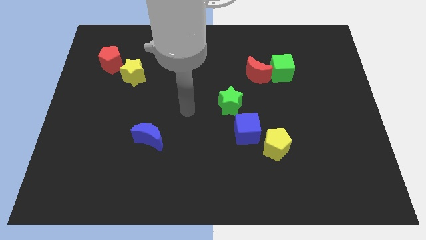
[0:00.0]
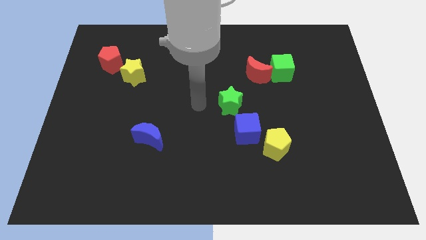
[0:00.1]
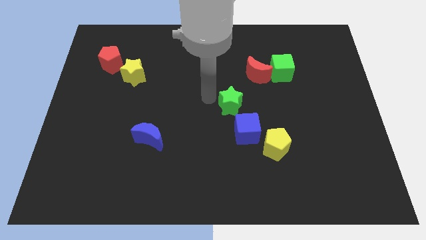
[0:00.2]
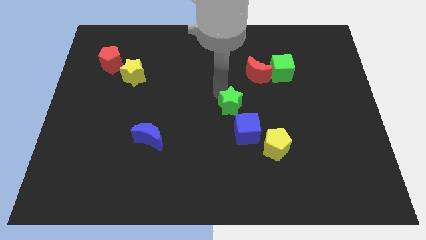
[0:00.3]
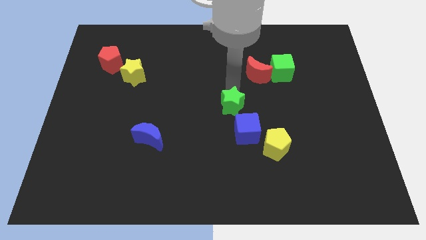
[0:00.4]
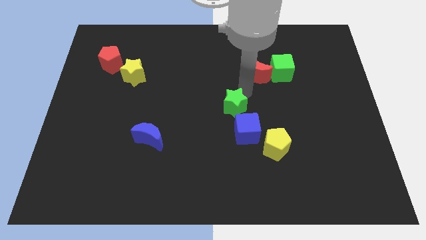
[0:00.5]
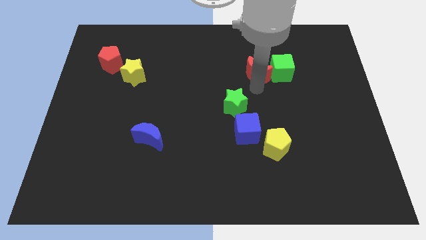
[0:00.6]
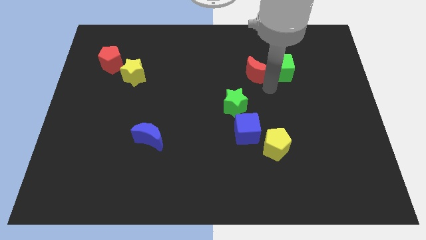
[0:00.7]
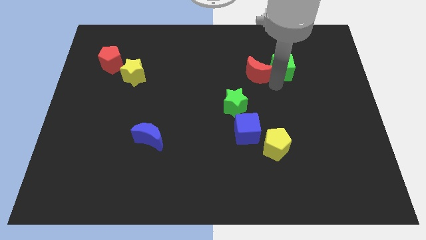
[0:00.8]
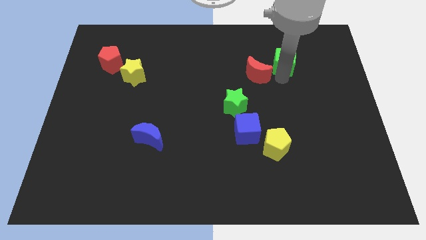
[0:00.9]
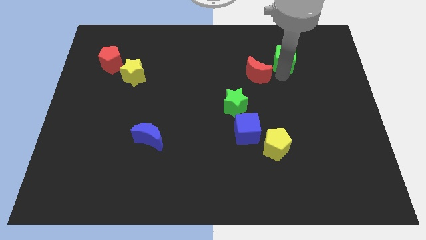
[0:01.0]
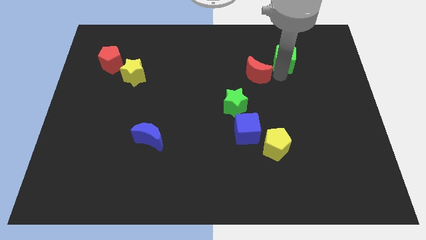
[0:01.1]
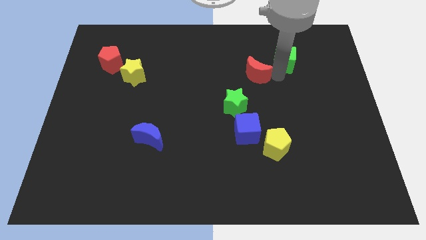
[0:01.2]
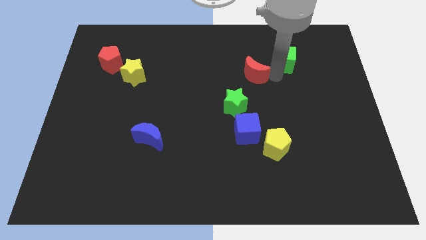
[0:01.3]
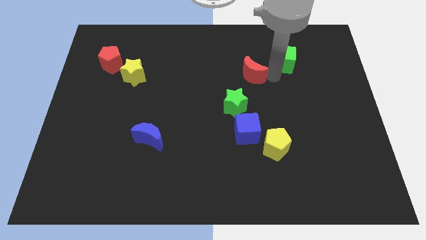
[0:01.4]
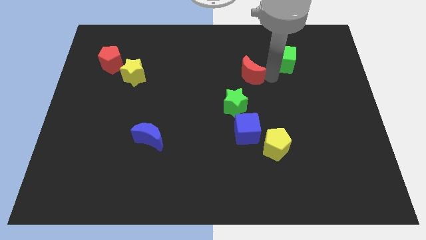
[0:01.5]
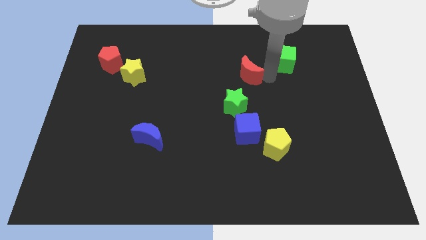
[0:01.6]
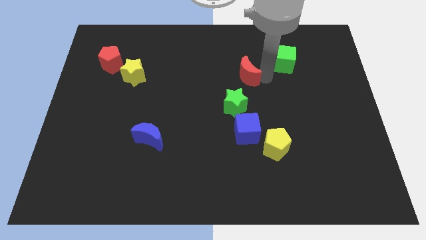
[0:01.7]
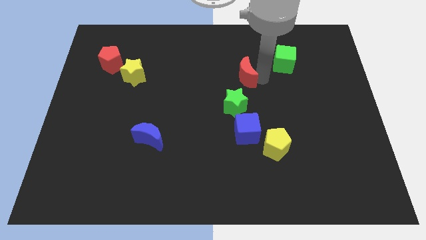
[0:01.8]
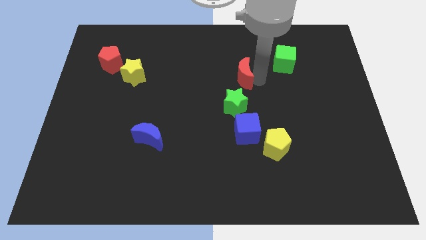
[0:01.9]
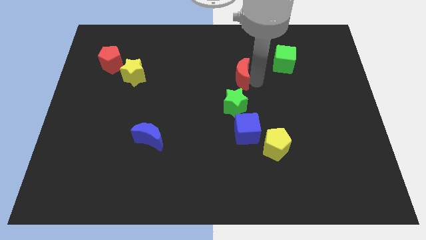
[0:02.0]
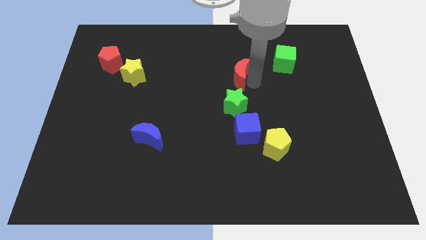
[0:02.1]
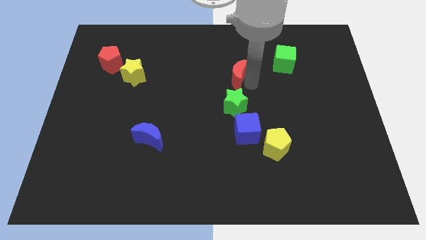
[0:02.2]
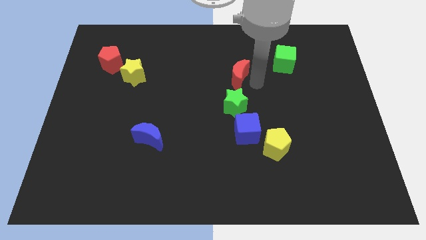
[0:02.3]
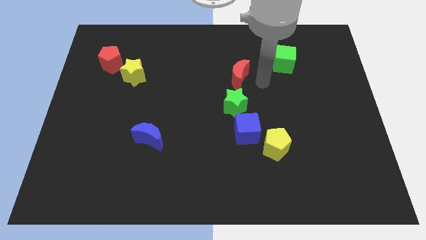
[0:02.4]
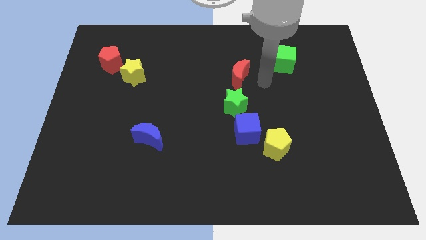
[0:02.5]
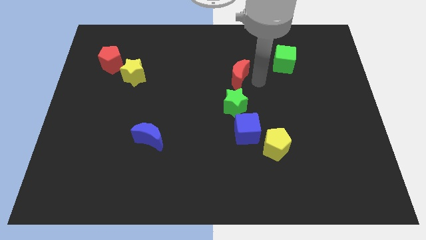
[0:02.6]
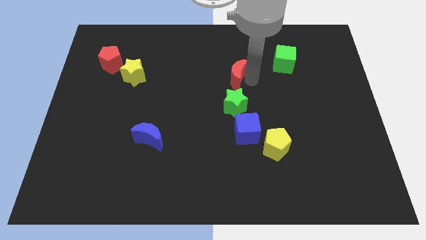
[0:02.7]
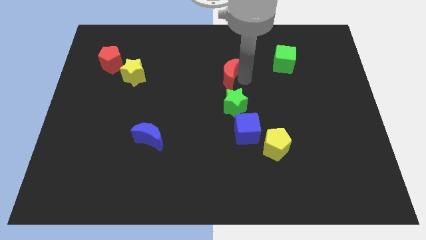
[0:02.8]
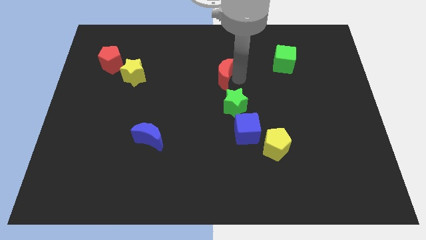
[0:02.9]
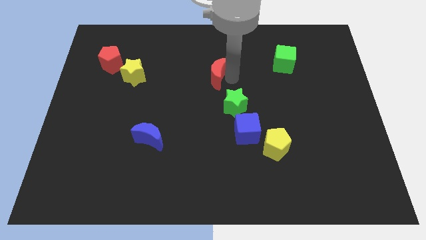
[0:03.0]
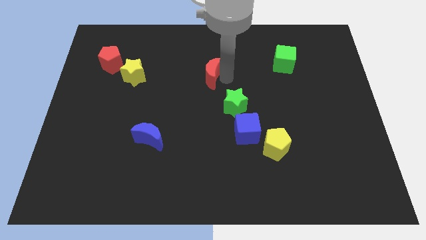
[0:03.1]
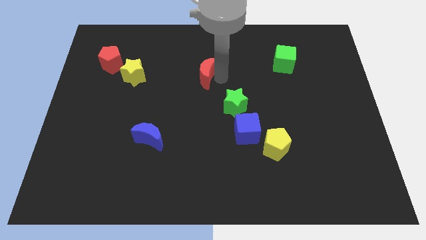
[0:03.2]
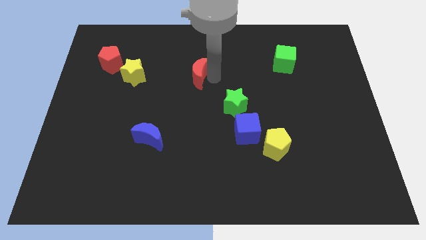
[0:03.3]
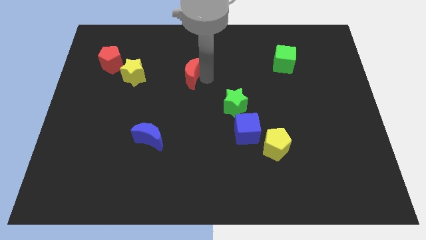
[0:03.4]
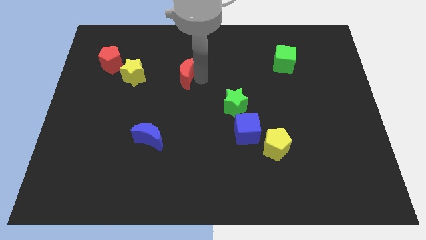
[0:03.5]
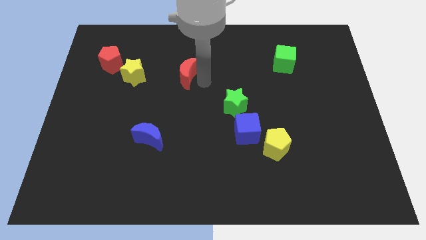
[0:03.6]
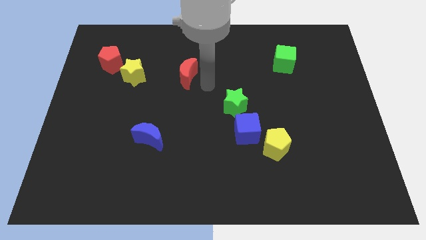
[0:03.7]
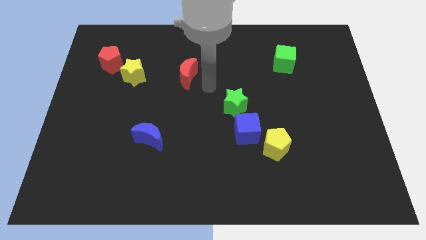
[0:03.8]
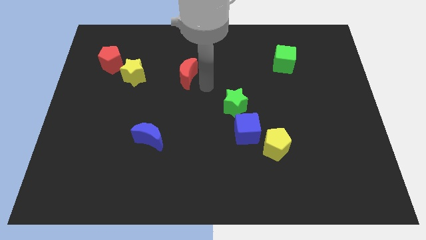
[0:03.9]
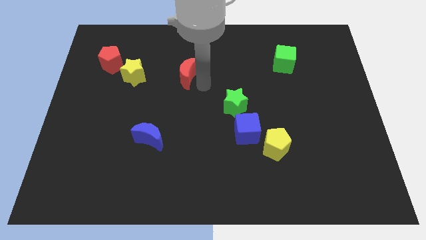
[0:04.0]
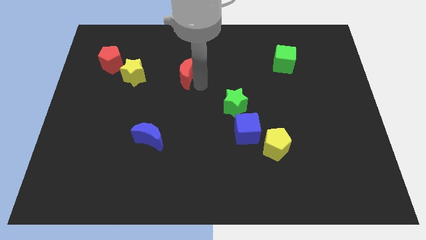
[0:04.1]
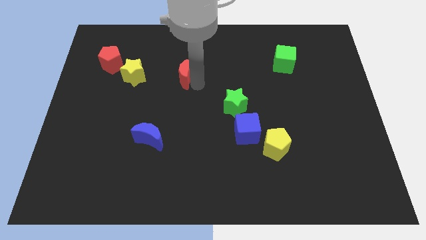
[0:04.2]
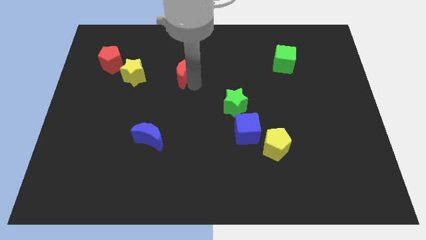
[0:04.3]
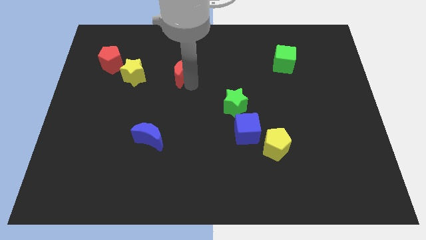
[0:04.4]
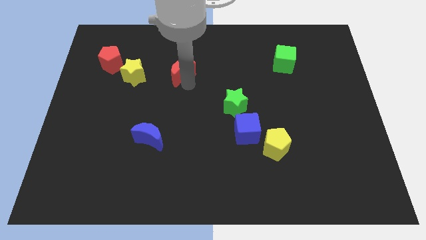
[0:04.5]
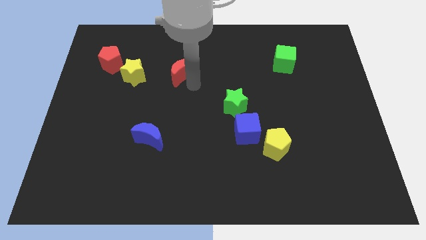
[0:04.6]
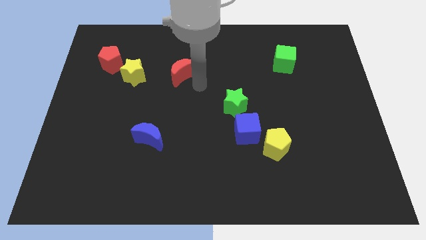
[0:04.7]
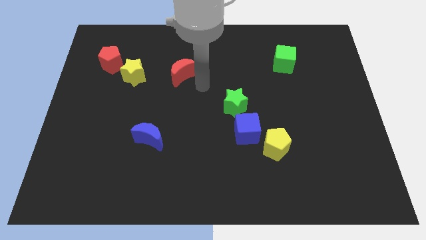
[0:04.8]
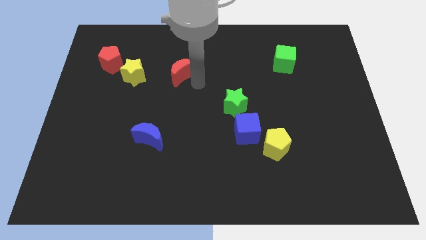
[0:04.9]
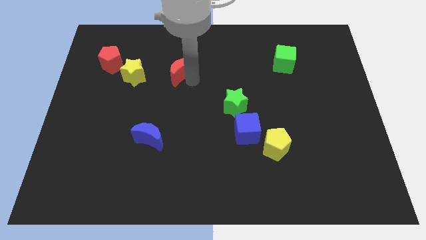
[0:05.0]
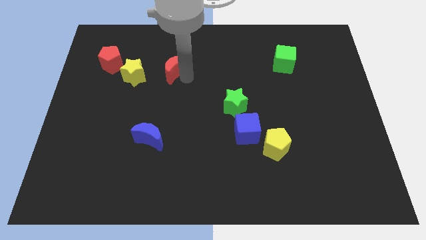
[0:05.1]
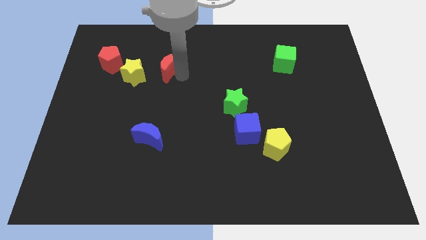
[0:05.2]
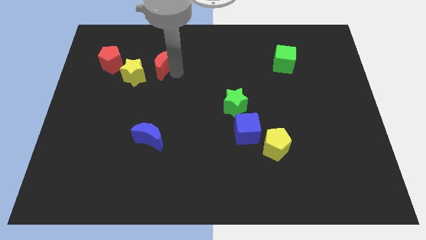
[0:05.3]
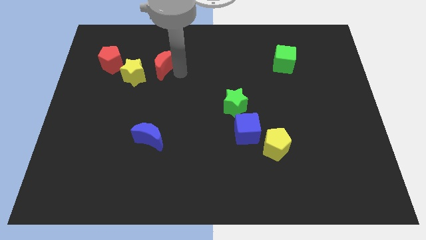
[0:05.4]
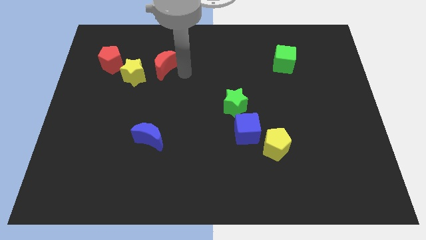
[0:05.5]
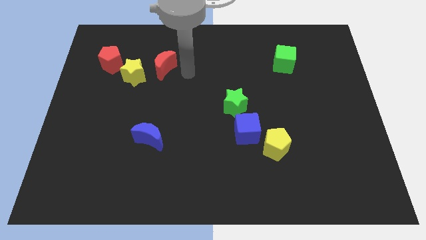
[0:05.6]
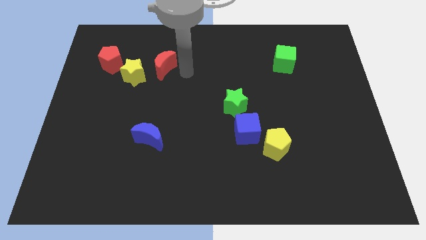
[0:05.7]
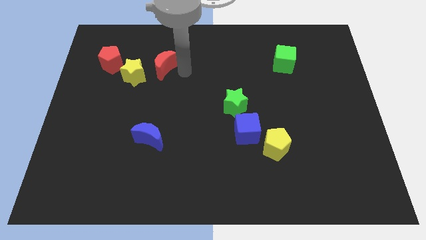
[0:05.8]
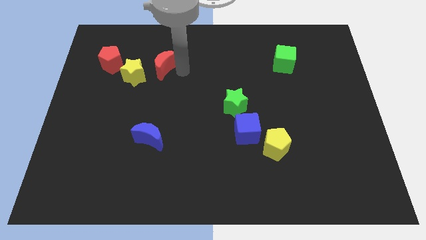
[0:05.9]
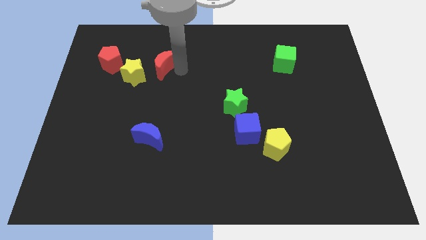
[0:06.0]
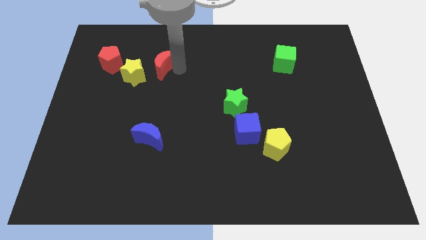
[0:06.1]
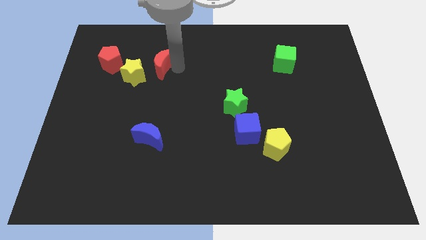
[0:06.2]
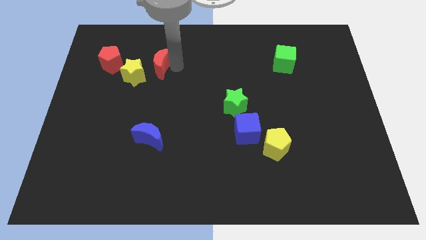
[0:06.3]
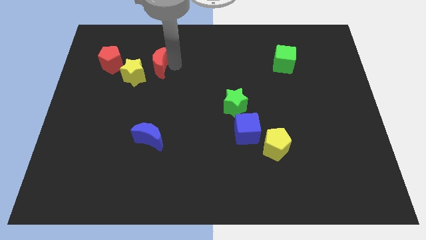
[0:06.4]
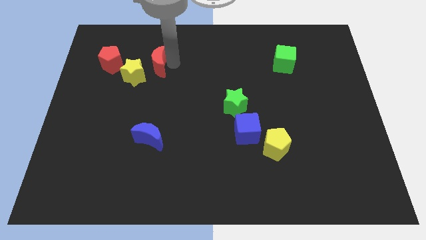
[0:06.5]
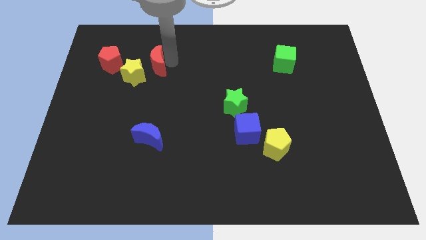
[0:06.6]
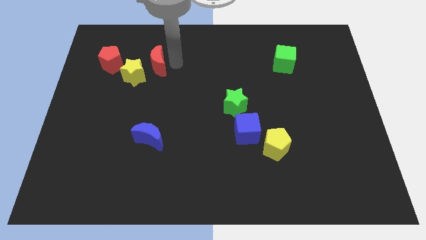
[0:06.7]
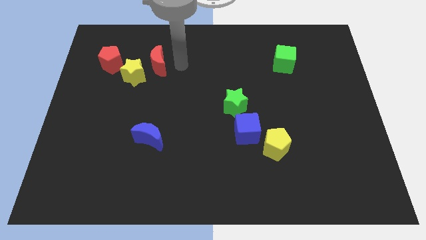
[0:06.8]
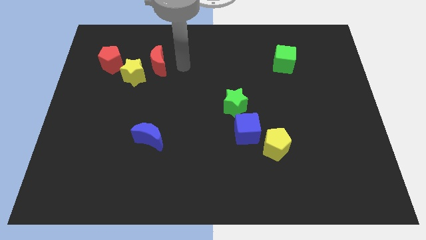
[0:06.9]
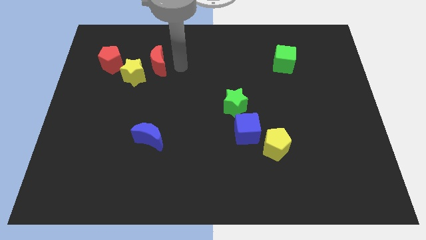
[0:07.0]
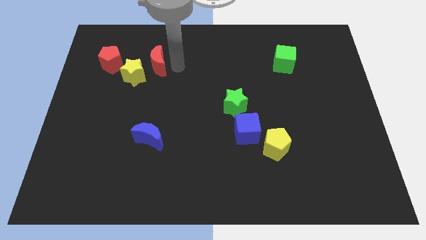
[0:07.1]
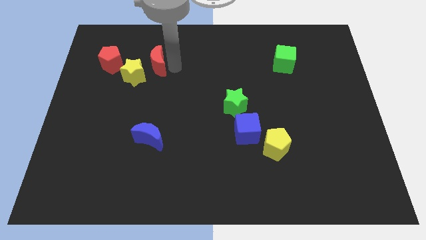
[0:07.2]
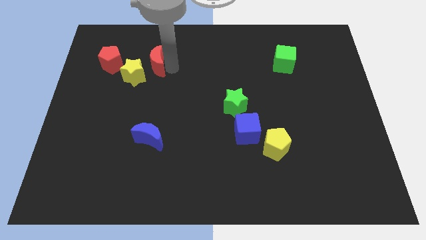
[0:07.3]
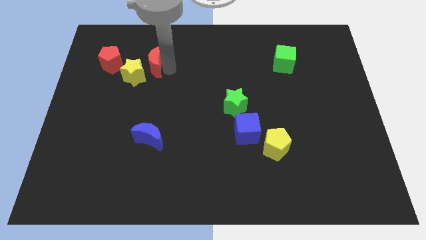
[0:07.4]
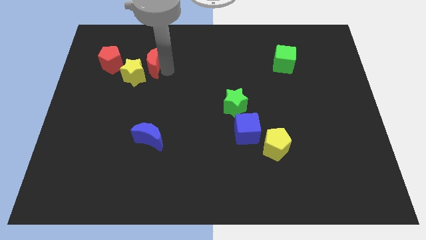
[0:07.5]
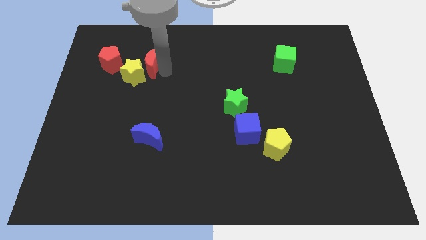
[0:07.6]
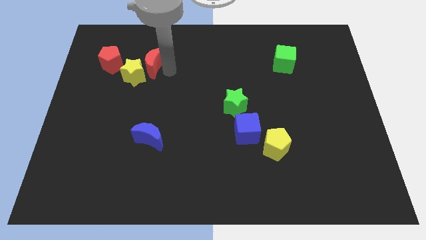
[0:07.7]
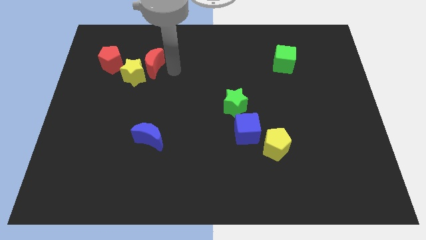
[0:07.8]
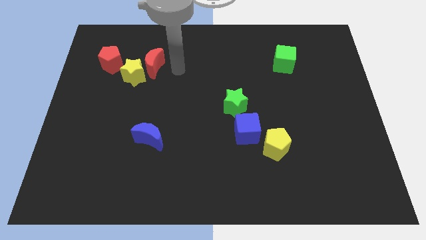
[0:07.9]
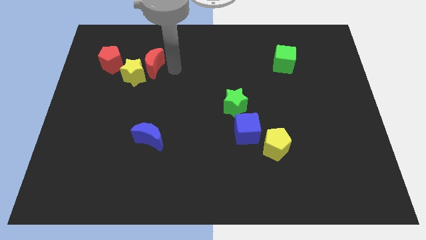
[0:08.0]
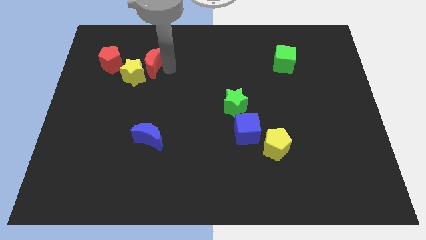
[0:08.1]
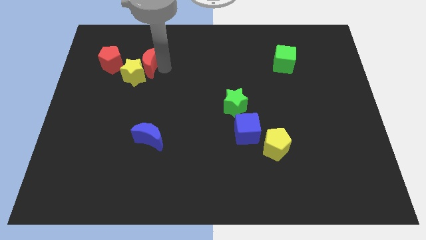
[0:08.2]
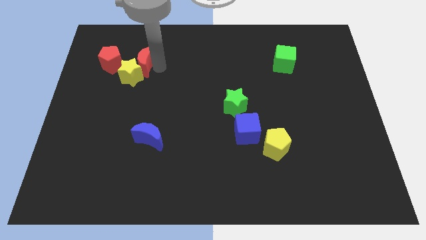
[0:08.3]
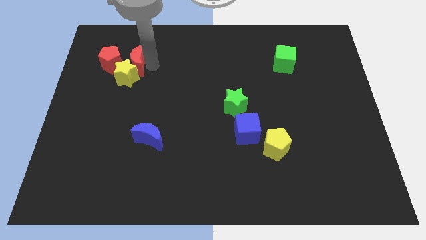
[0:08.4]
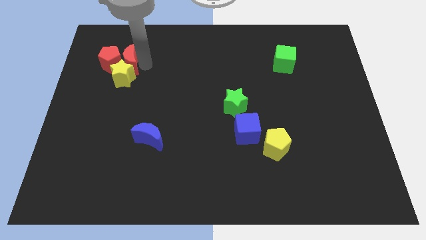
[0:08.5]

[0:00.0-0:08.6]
slide the red moon next to the red pentagon
